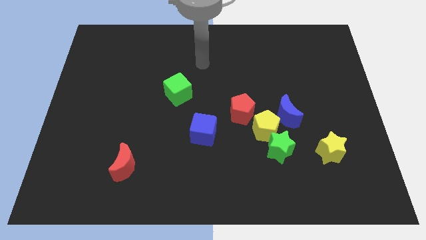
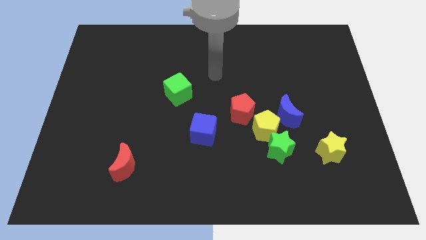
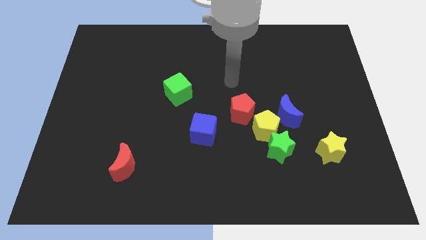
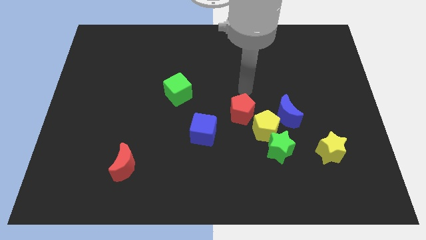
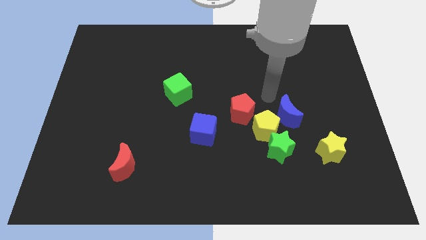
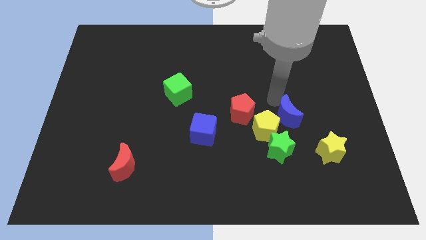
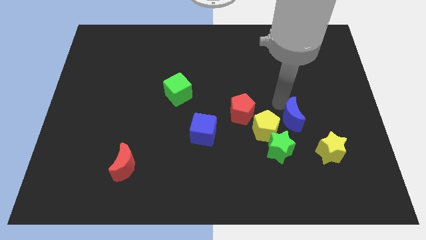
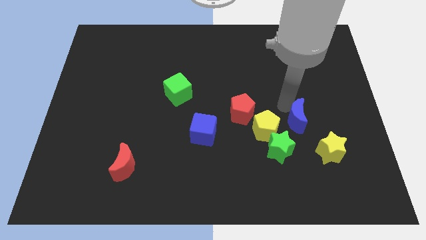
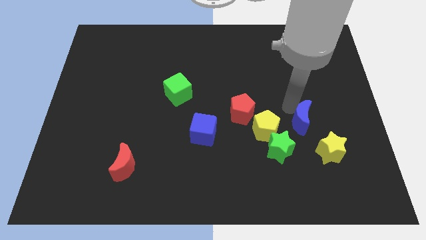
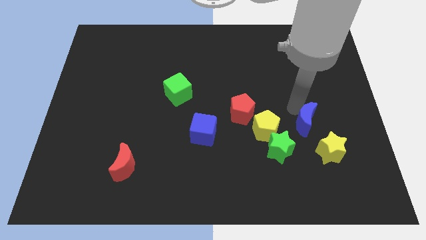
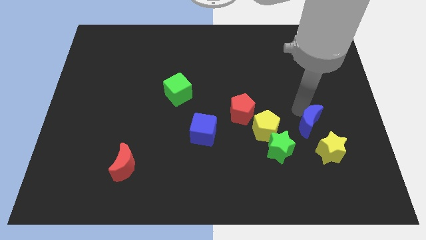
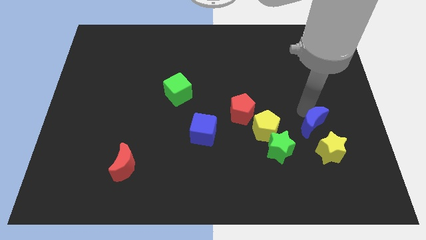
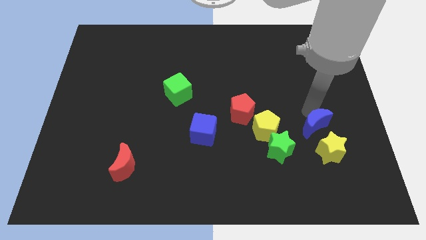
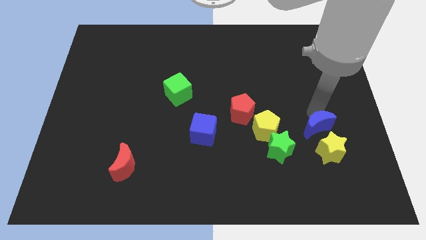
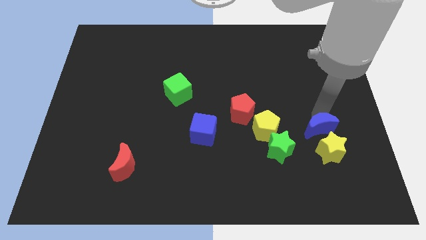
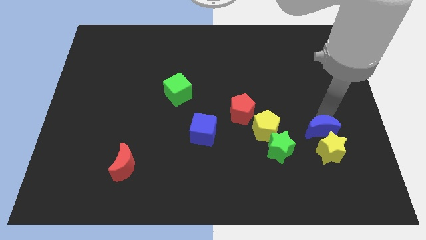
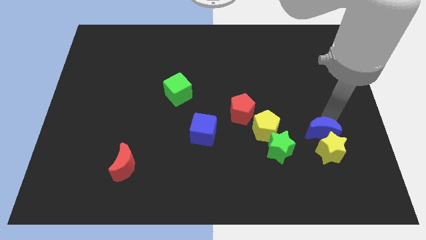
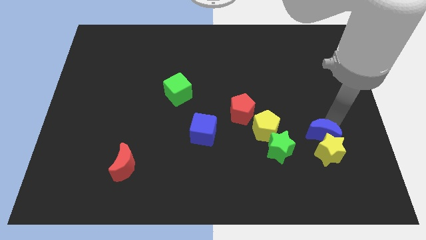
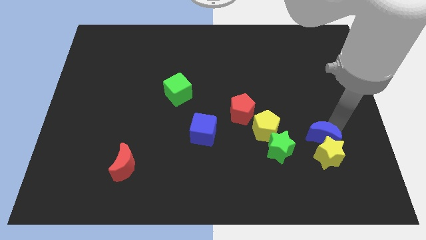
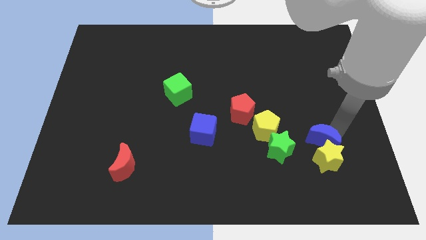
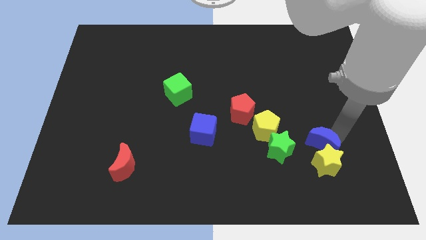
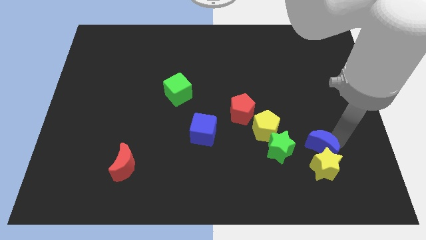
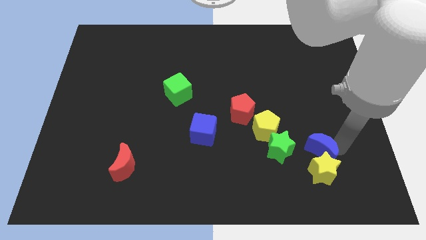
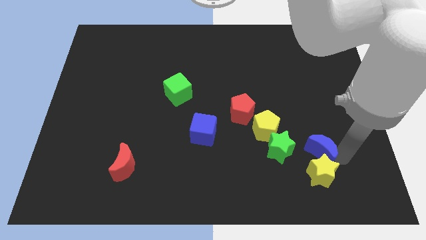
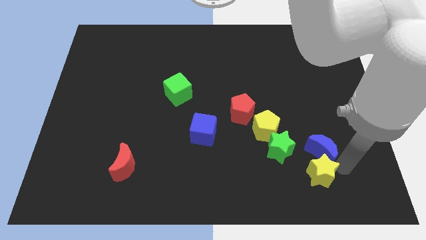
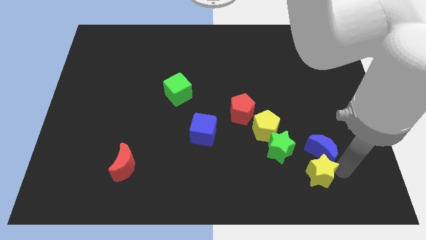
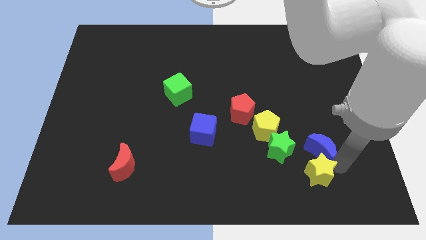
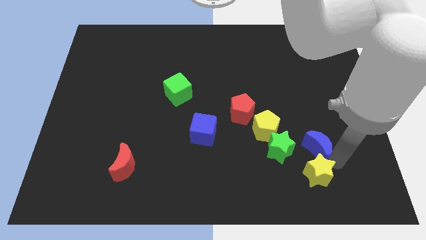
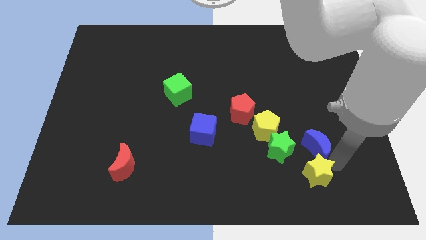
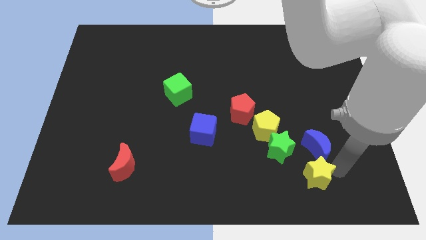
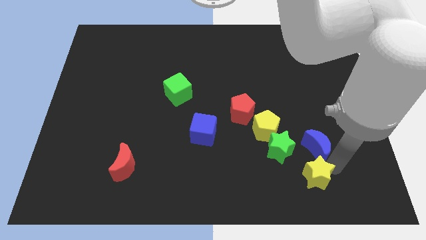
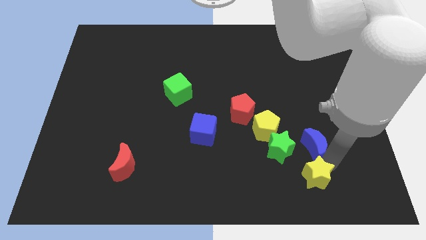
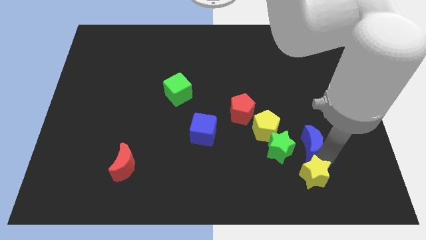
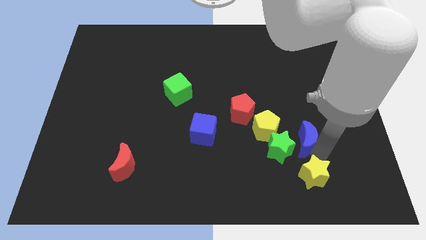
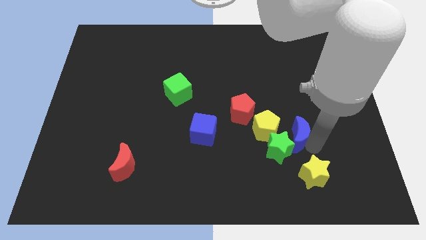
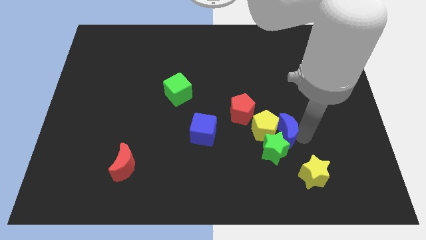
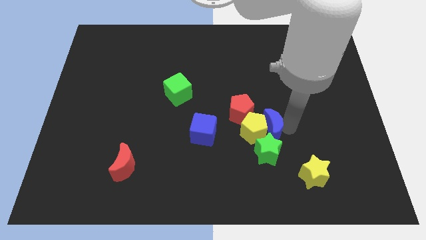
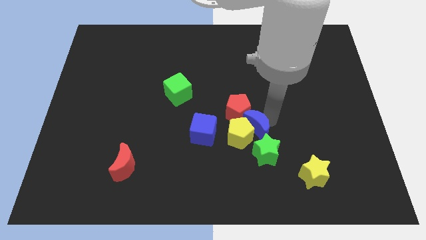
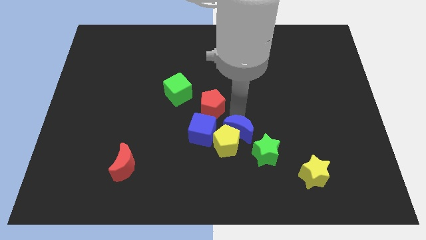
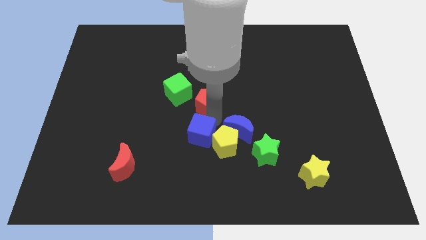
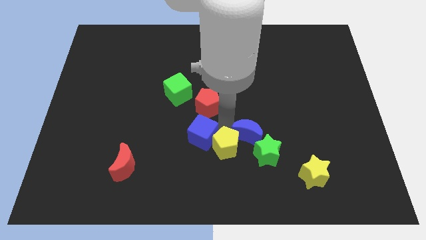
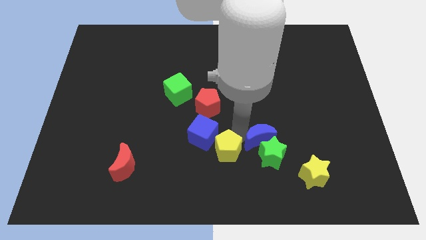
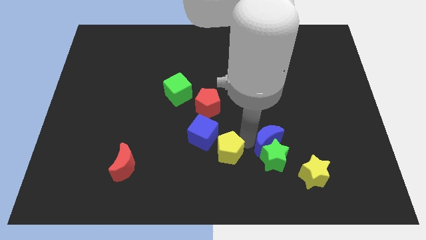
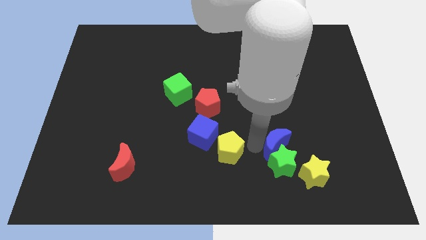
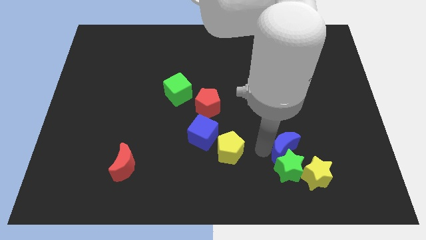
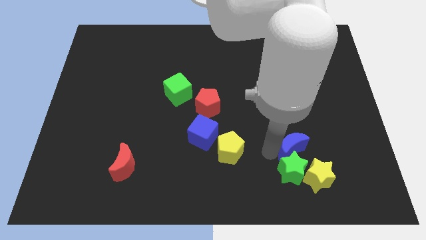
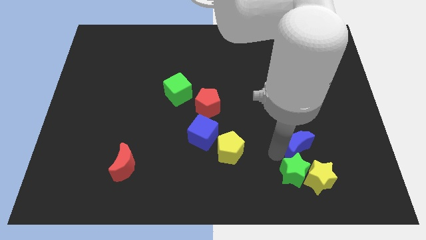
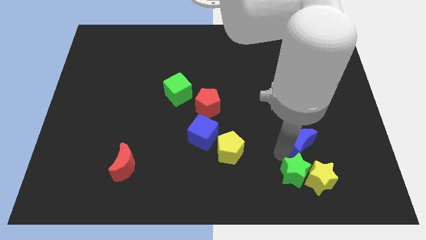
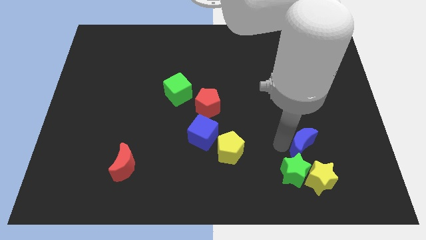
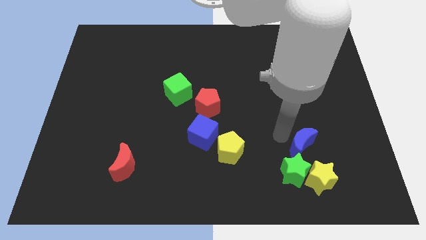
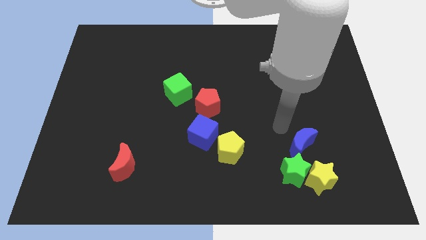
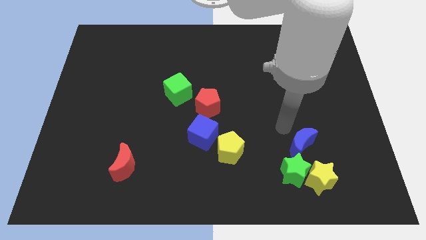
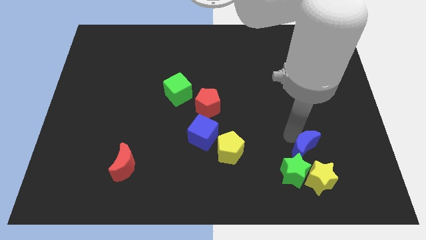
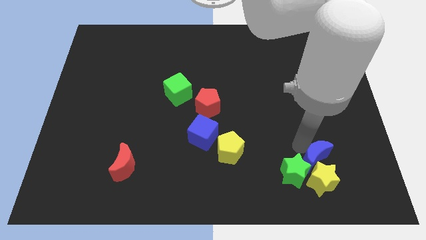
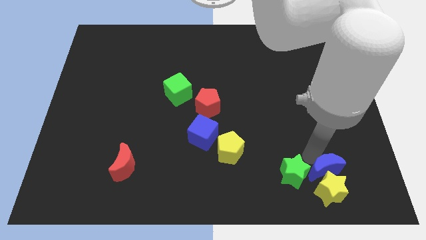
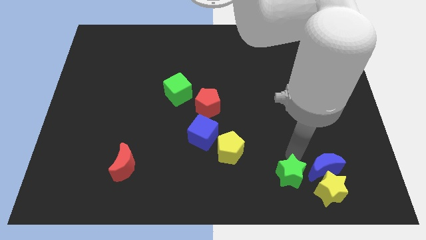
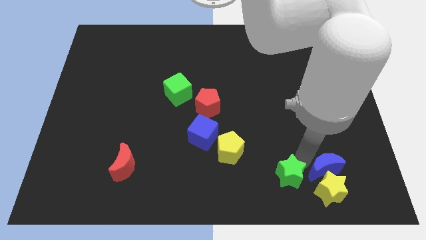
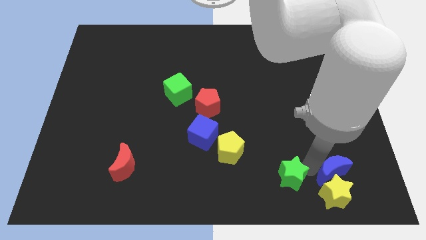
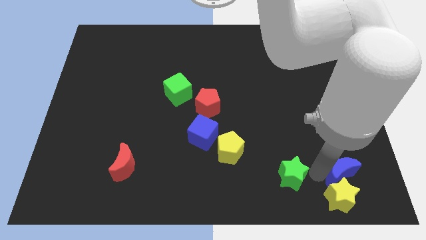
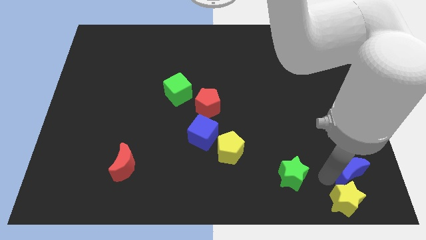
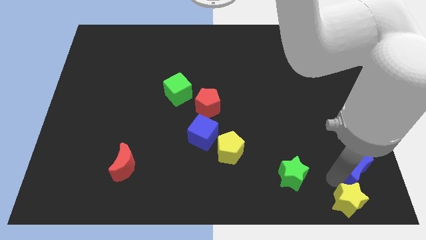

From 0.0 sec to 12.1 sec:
put the blue moon to the bottom right

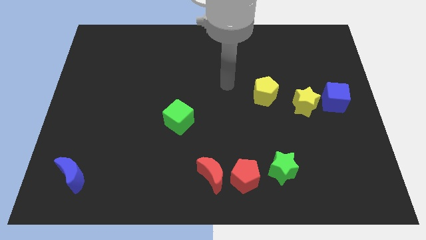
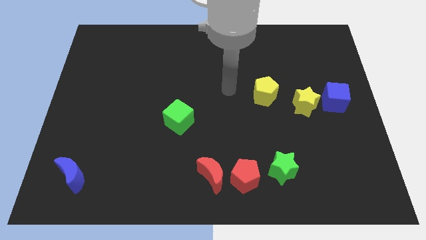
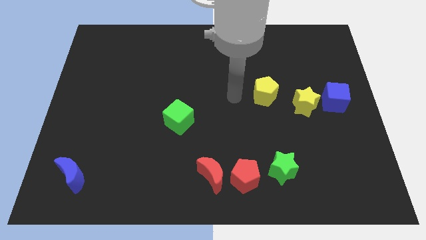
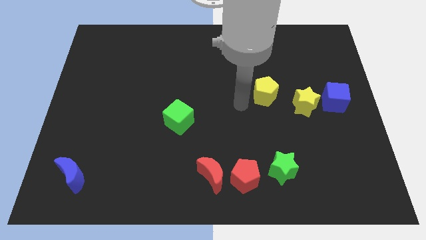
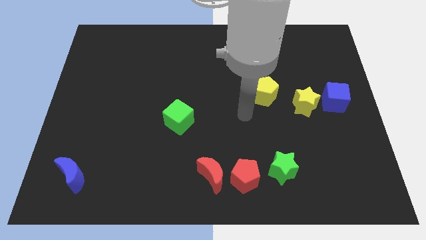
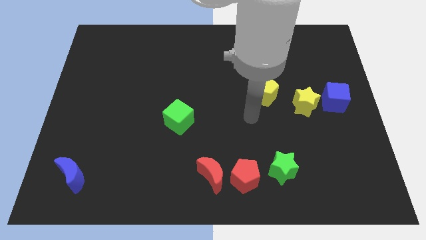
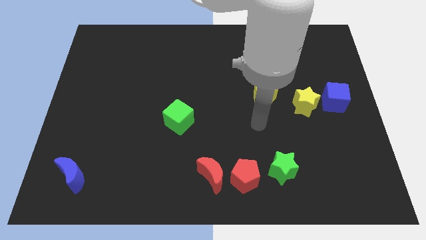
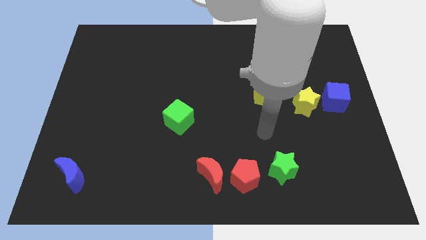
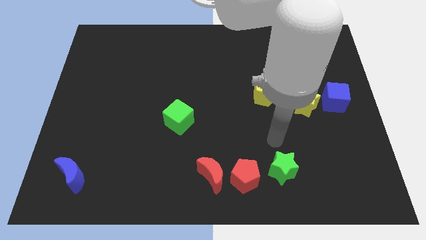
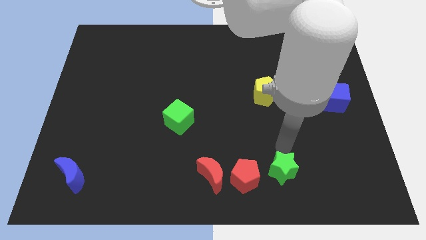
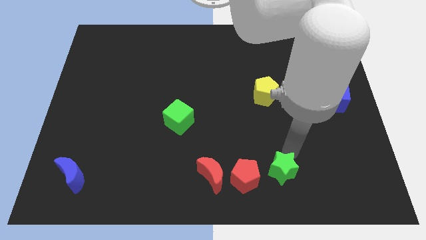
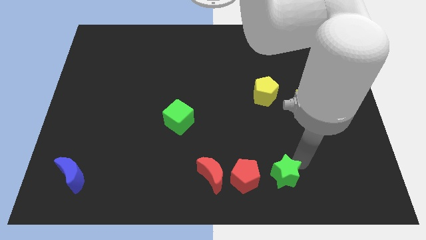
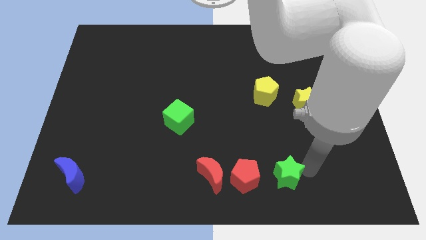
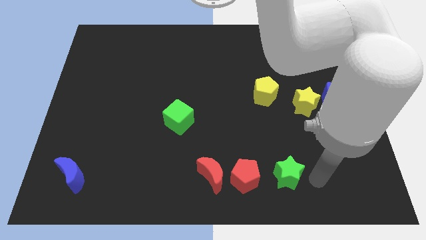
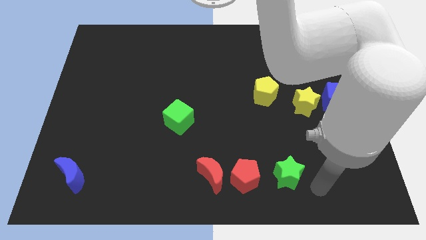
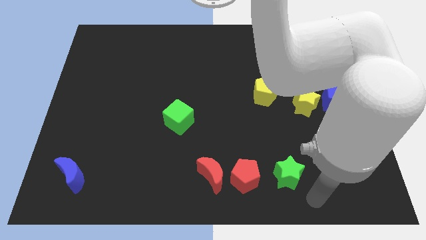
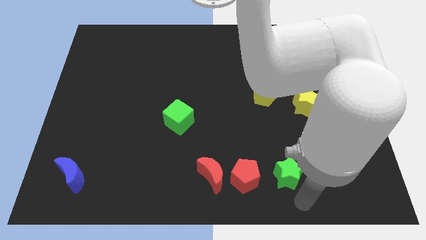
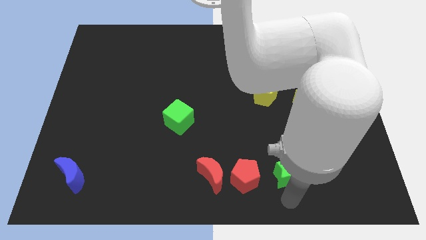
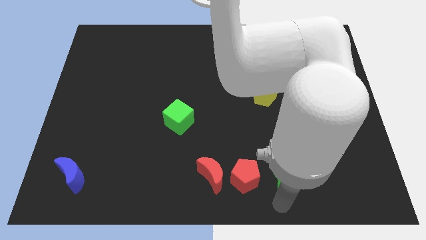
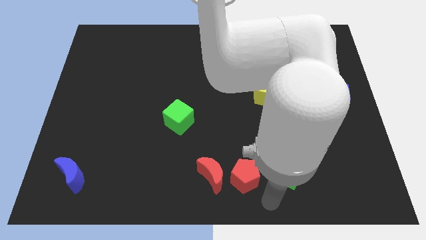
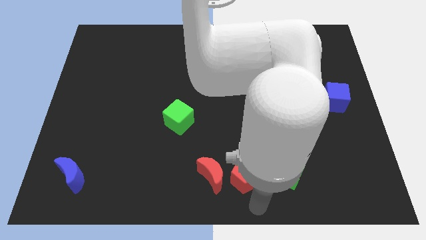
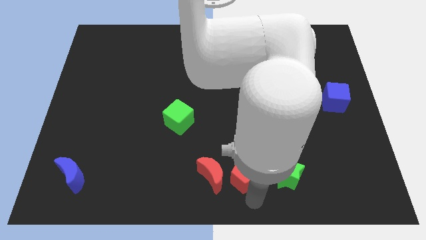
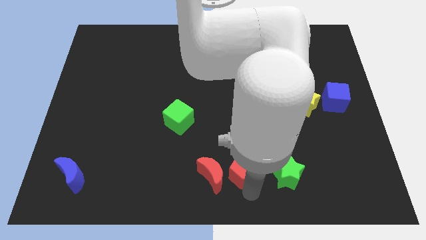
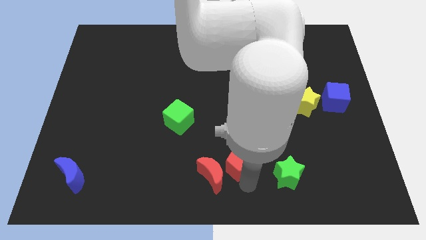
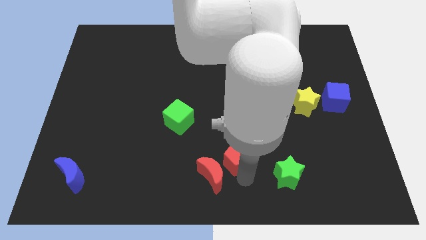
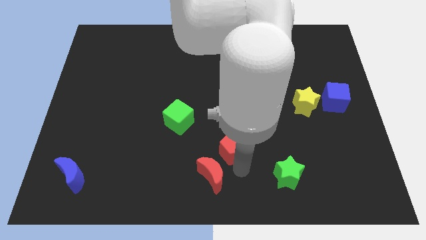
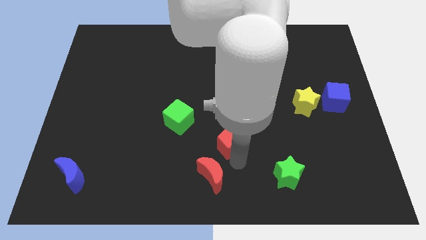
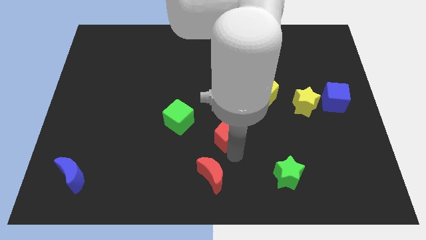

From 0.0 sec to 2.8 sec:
push the red pentagon to the middle of the board
